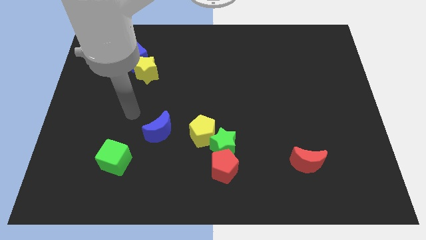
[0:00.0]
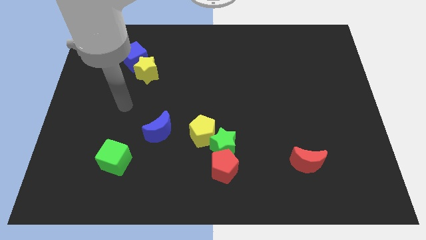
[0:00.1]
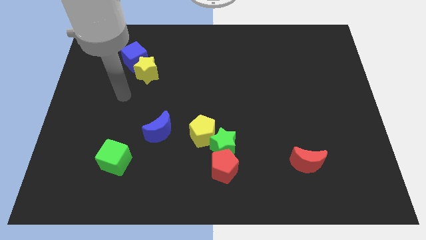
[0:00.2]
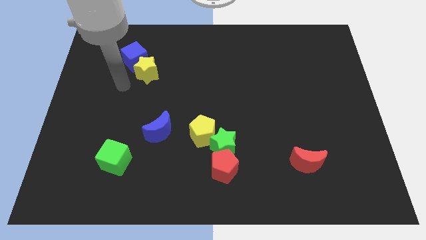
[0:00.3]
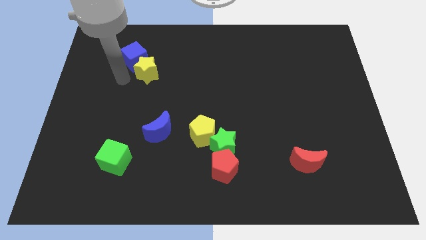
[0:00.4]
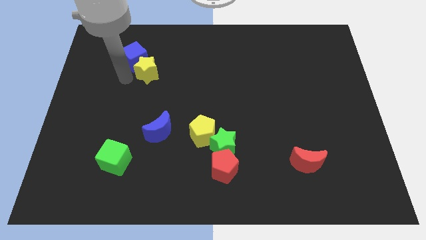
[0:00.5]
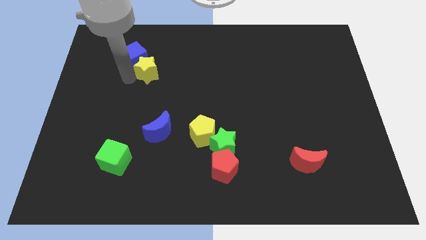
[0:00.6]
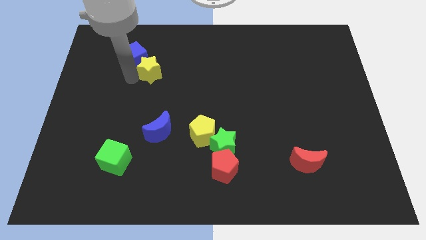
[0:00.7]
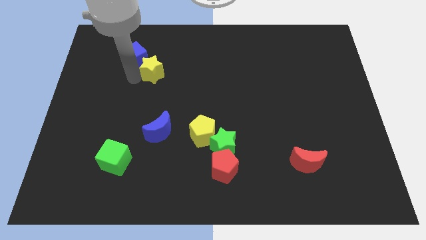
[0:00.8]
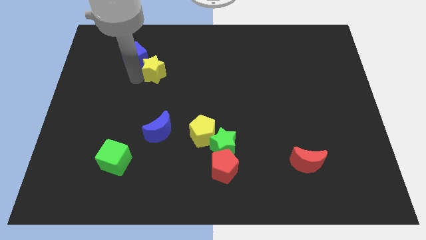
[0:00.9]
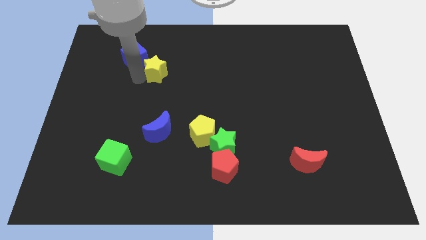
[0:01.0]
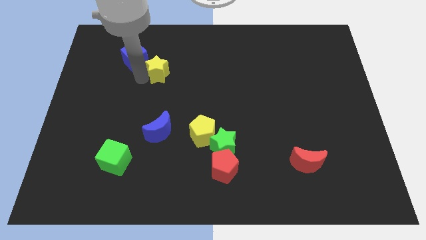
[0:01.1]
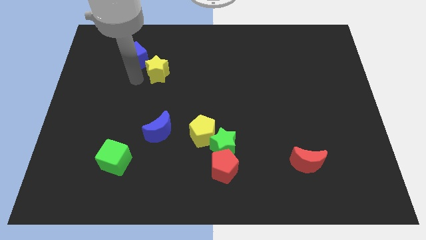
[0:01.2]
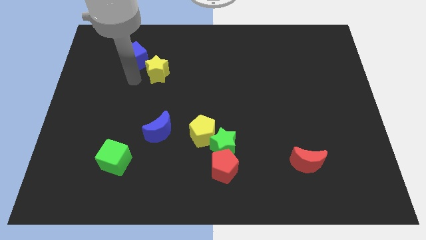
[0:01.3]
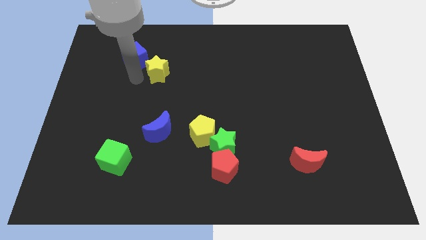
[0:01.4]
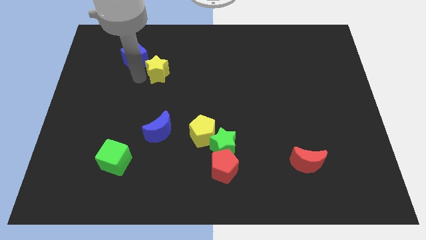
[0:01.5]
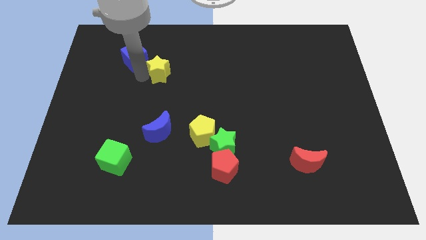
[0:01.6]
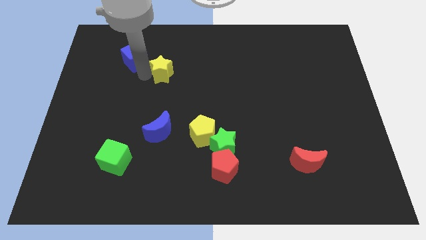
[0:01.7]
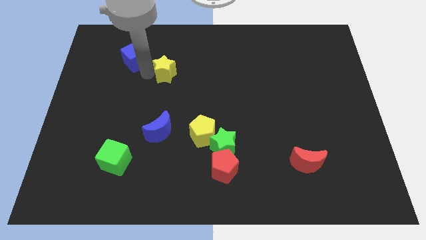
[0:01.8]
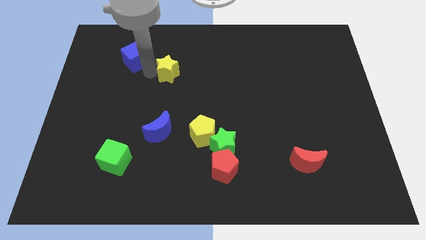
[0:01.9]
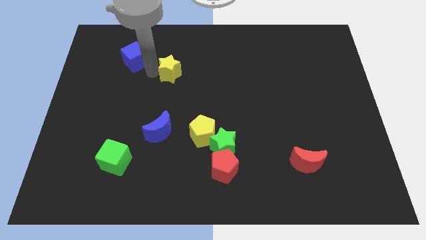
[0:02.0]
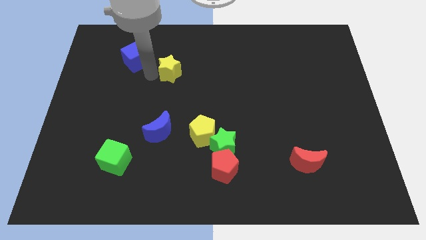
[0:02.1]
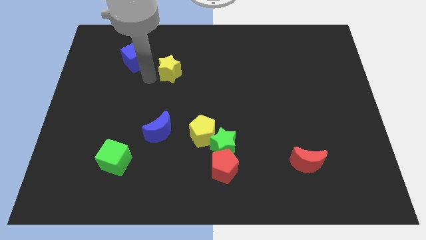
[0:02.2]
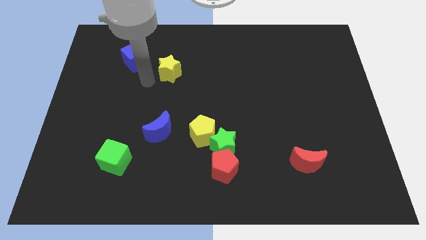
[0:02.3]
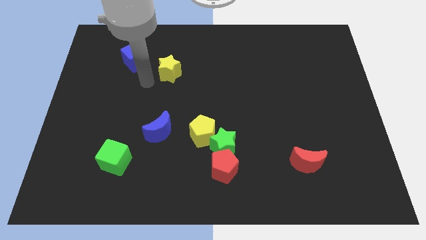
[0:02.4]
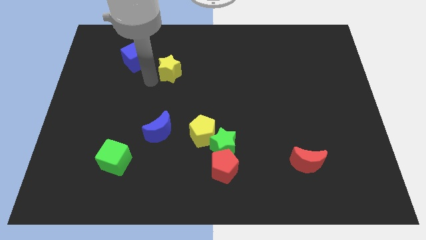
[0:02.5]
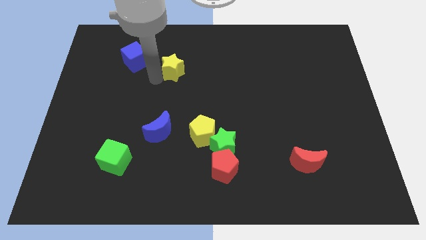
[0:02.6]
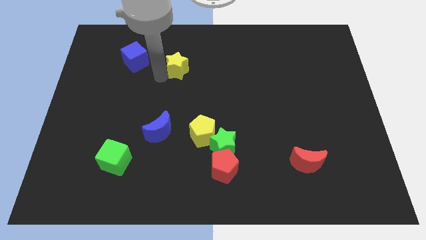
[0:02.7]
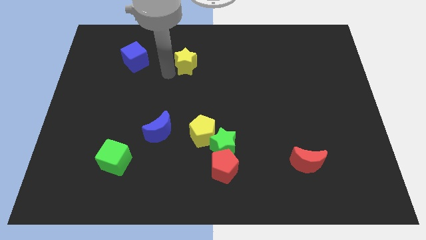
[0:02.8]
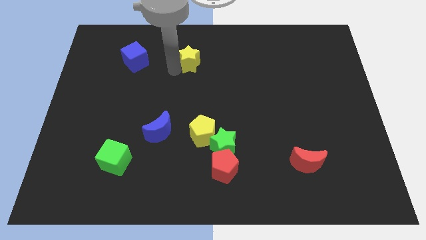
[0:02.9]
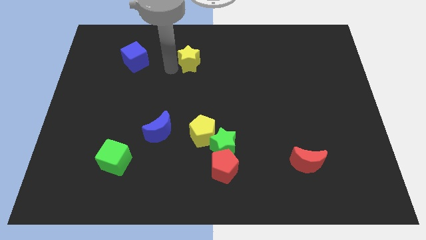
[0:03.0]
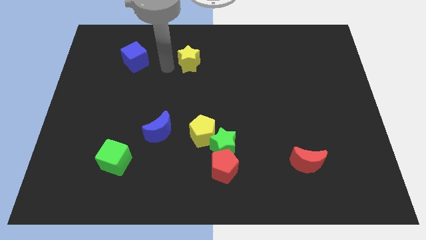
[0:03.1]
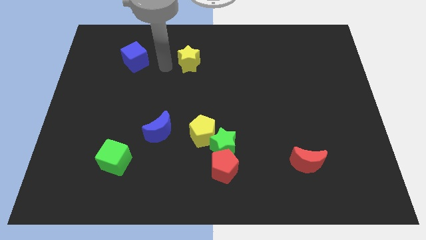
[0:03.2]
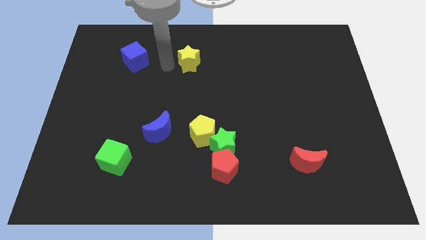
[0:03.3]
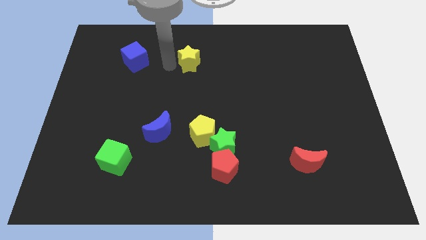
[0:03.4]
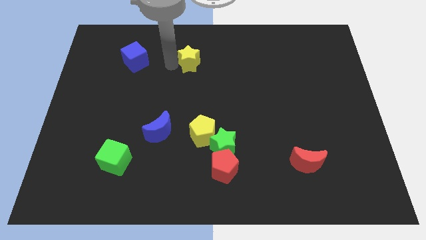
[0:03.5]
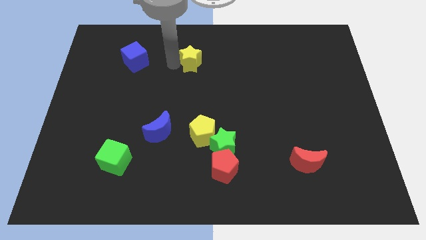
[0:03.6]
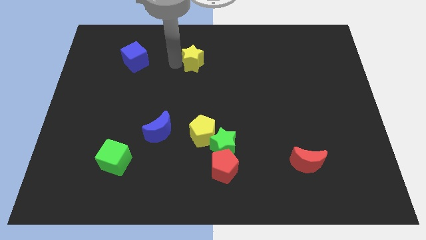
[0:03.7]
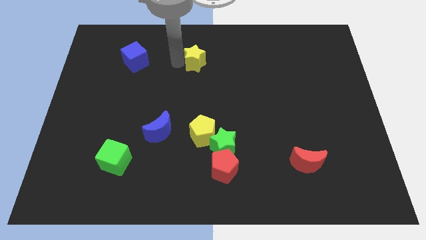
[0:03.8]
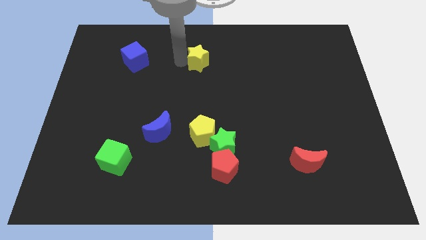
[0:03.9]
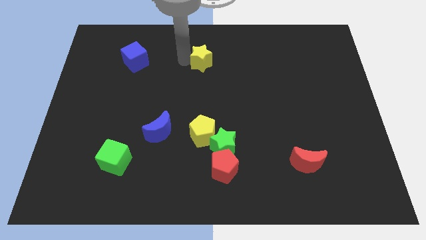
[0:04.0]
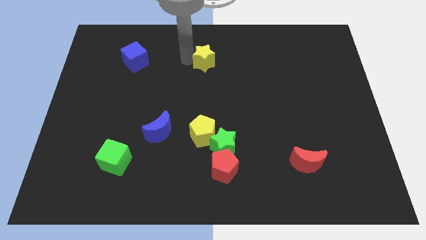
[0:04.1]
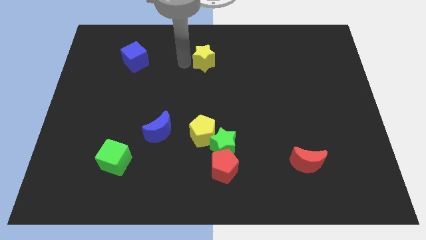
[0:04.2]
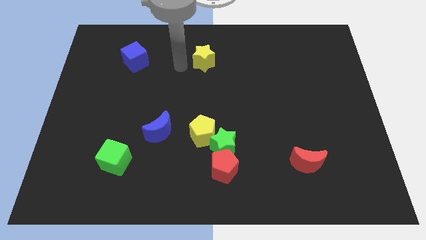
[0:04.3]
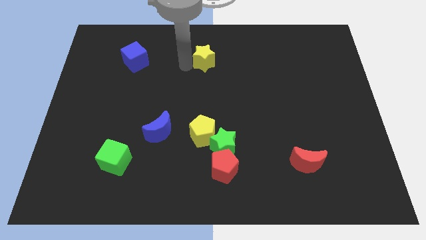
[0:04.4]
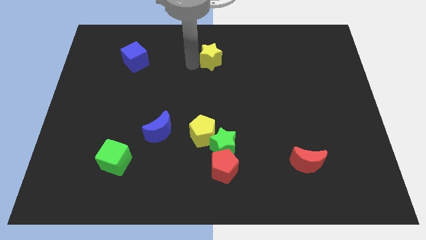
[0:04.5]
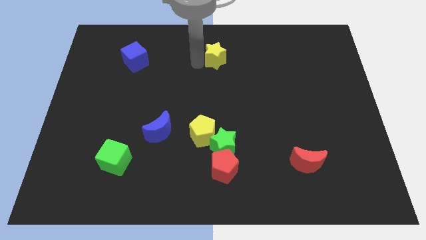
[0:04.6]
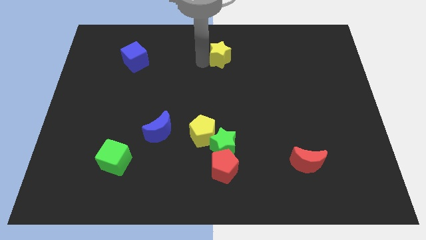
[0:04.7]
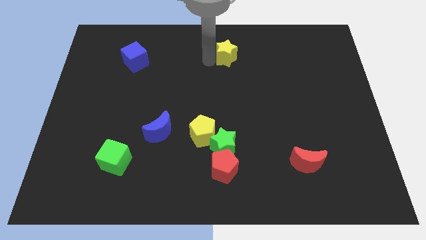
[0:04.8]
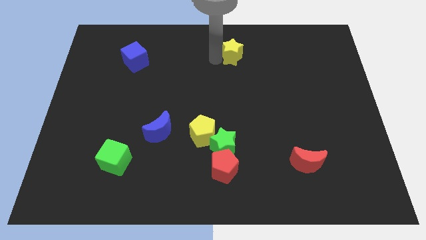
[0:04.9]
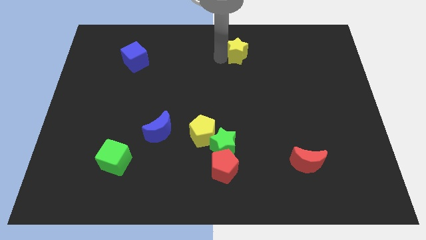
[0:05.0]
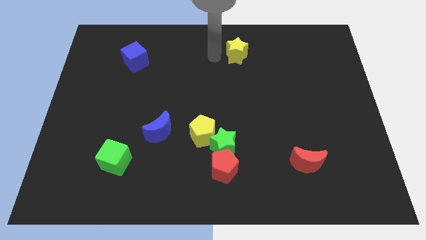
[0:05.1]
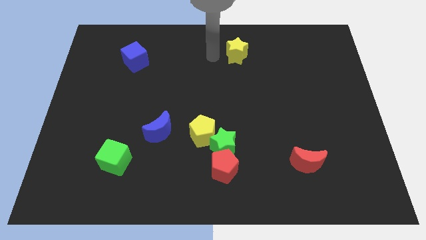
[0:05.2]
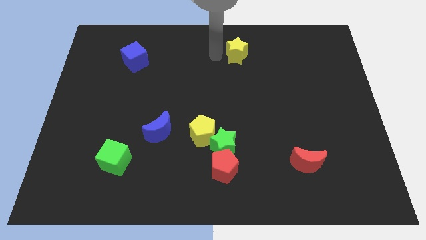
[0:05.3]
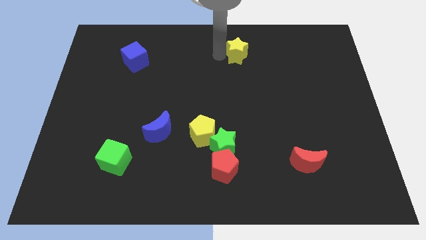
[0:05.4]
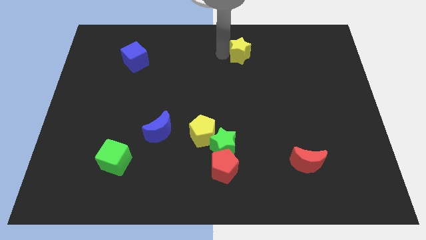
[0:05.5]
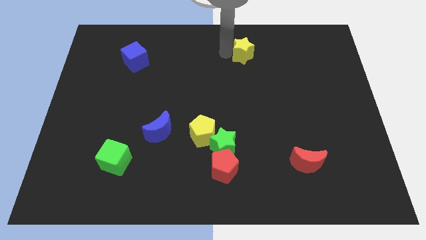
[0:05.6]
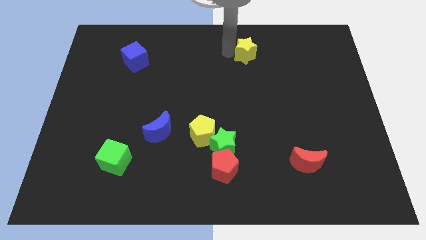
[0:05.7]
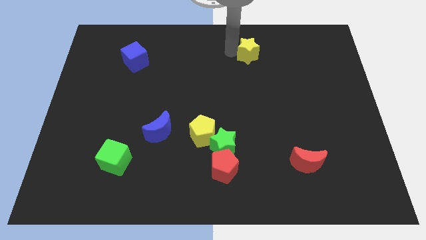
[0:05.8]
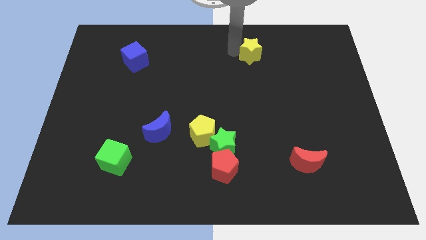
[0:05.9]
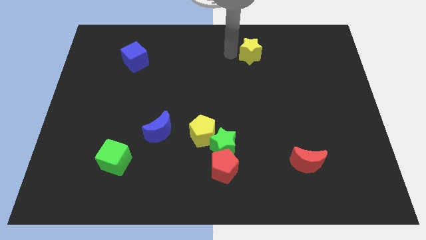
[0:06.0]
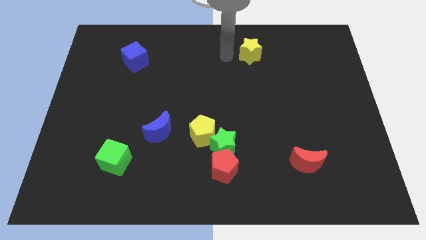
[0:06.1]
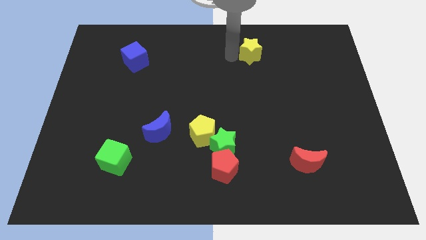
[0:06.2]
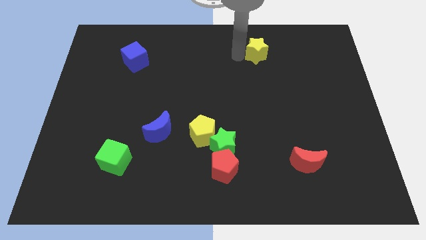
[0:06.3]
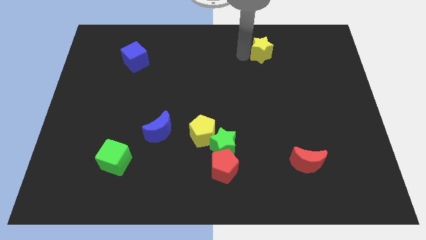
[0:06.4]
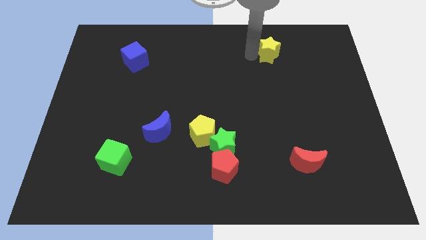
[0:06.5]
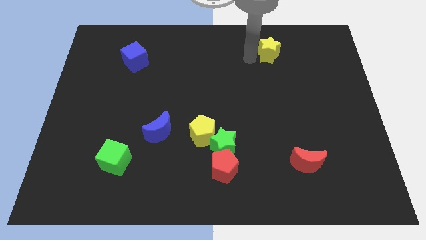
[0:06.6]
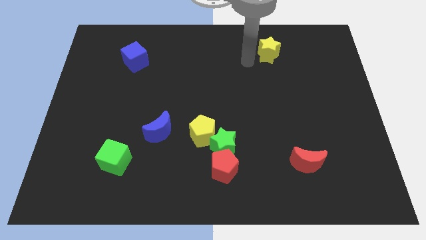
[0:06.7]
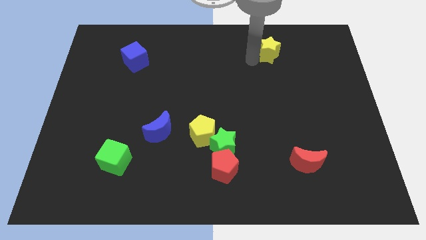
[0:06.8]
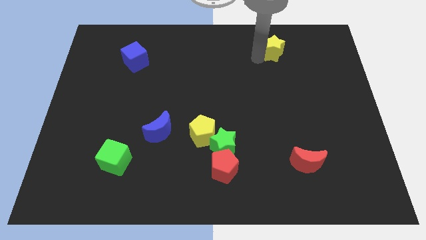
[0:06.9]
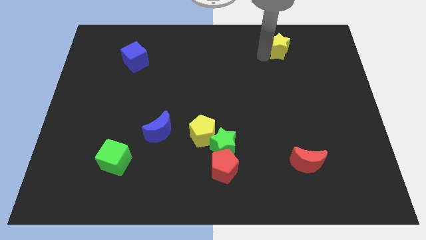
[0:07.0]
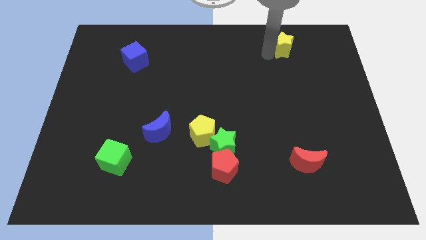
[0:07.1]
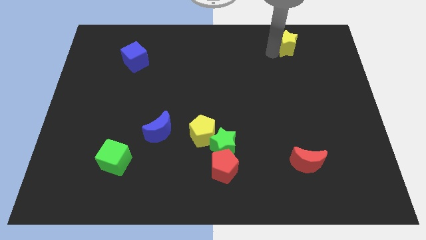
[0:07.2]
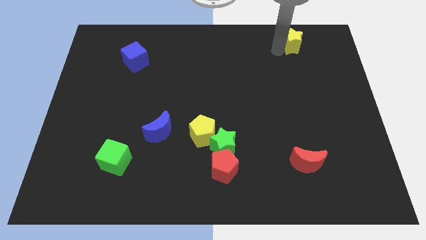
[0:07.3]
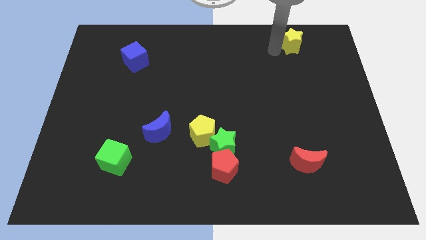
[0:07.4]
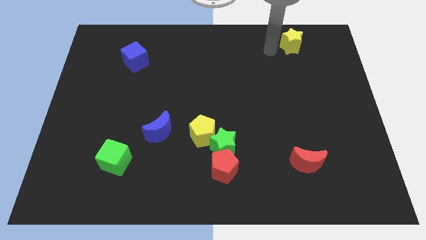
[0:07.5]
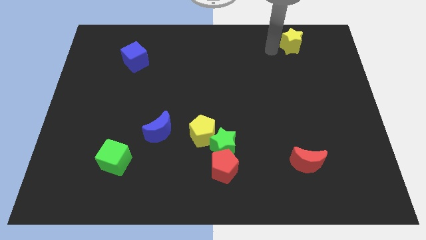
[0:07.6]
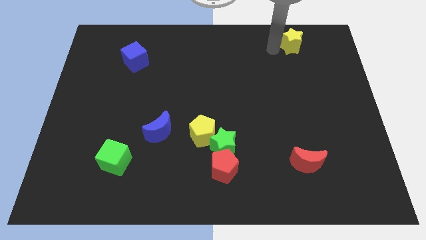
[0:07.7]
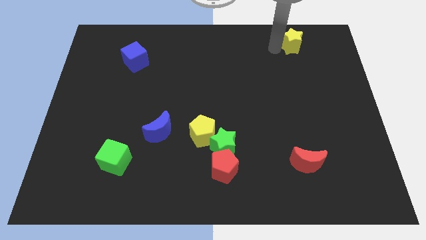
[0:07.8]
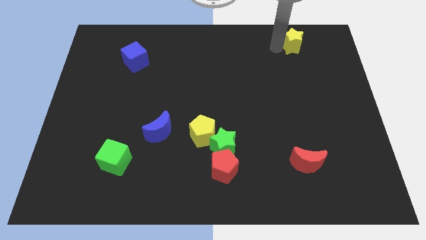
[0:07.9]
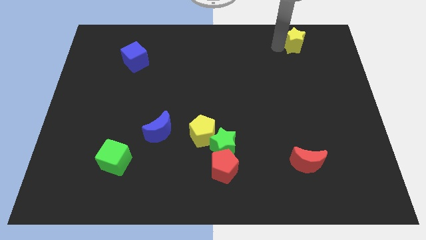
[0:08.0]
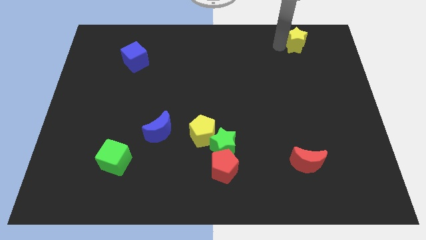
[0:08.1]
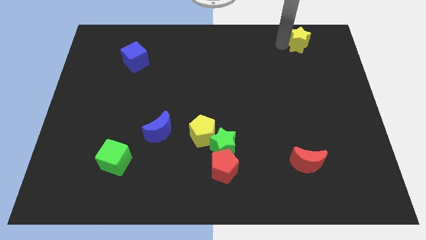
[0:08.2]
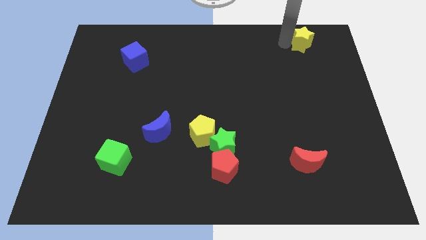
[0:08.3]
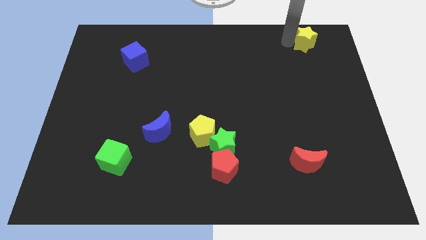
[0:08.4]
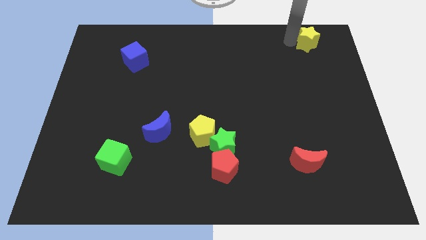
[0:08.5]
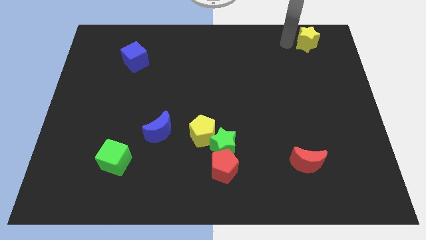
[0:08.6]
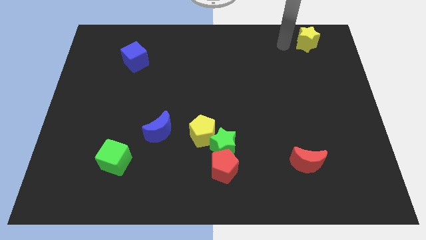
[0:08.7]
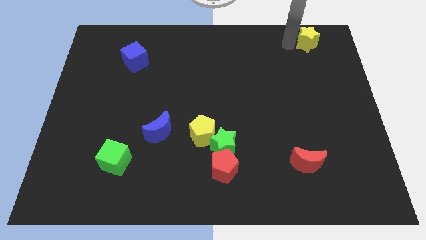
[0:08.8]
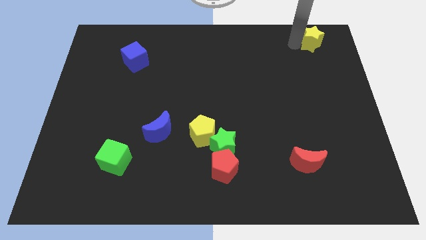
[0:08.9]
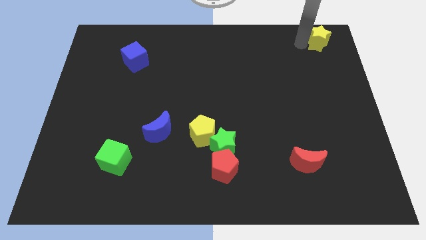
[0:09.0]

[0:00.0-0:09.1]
slide the yellow star to the top right
